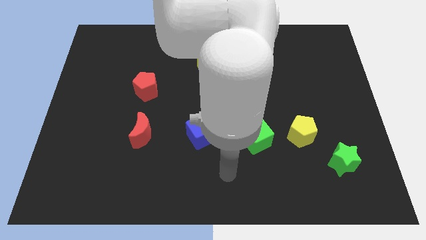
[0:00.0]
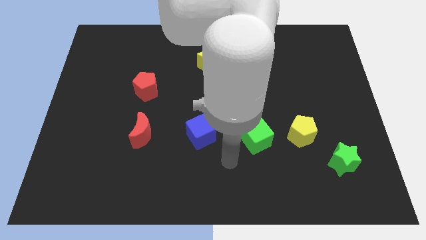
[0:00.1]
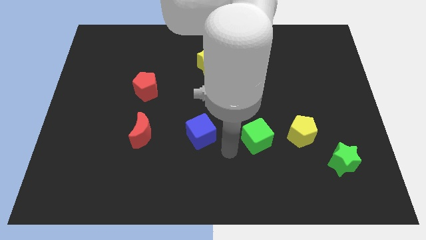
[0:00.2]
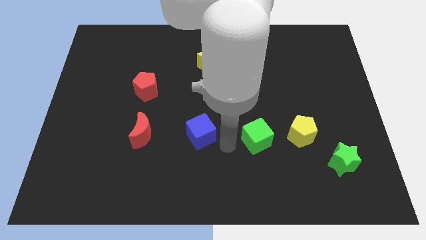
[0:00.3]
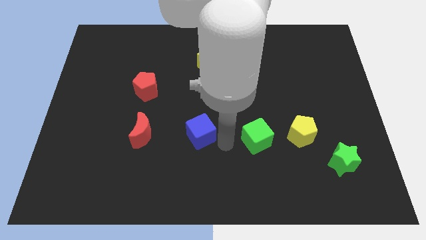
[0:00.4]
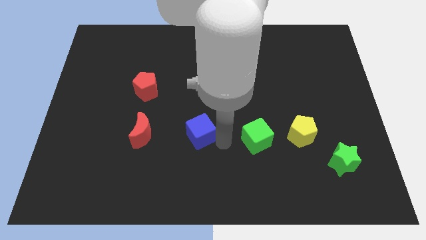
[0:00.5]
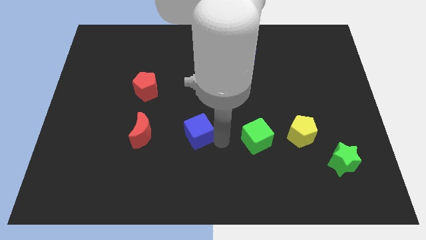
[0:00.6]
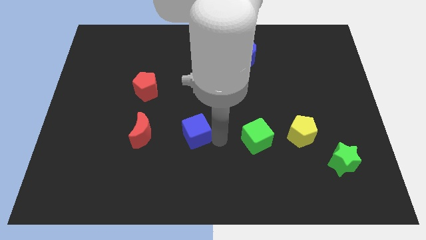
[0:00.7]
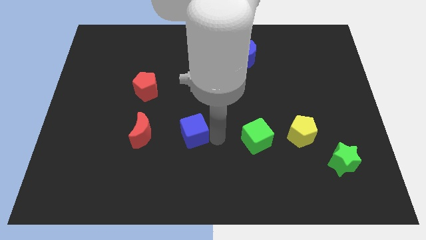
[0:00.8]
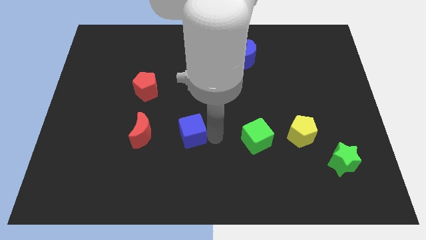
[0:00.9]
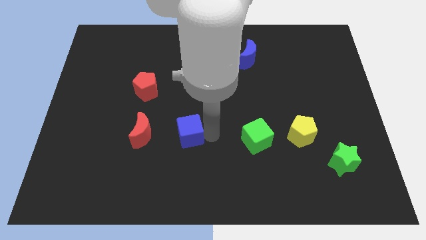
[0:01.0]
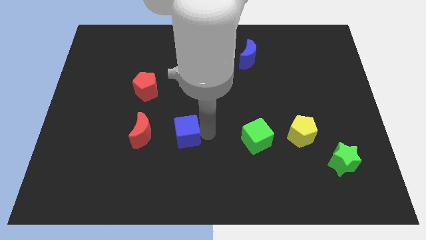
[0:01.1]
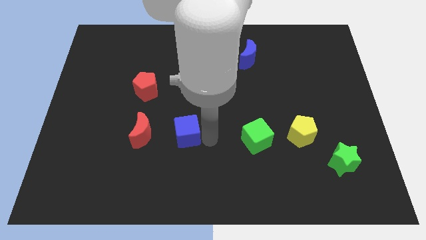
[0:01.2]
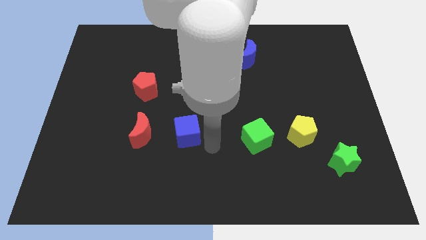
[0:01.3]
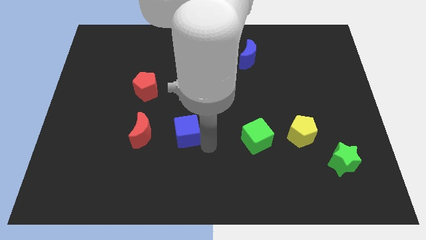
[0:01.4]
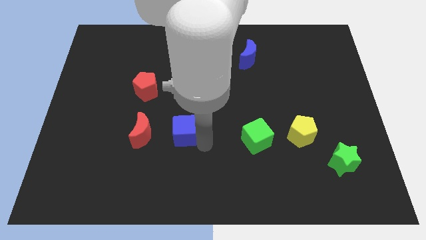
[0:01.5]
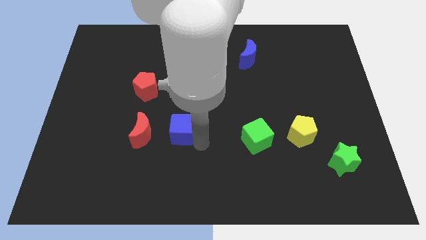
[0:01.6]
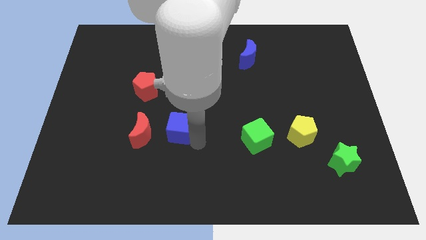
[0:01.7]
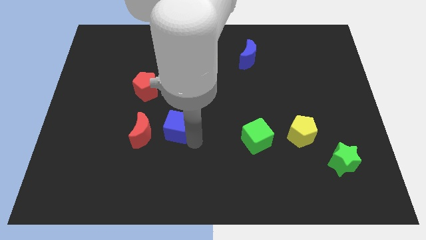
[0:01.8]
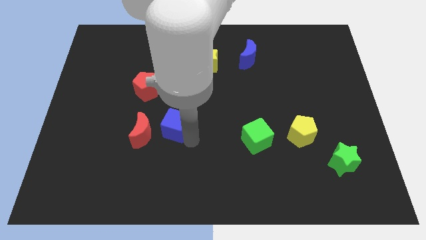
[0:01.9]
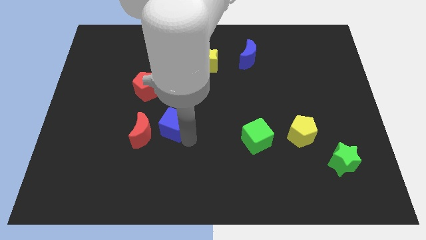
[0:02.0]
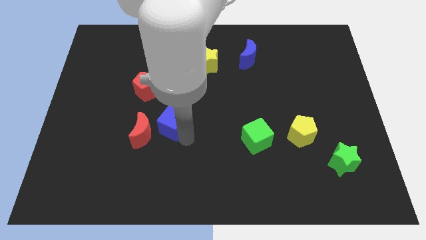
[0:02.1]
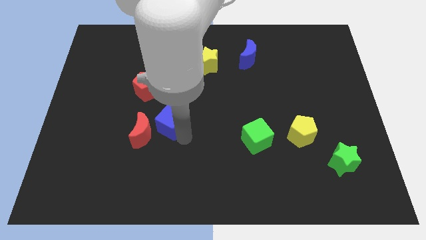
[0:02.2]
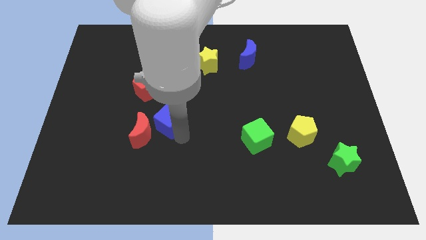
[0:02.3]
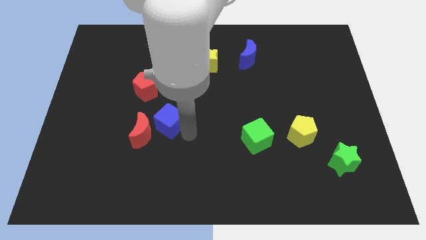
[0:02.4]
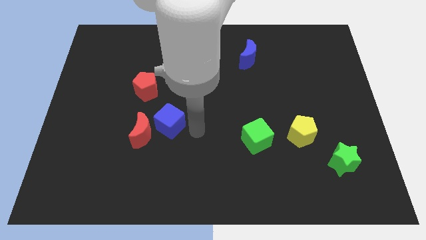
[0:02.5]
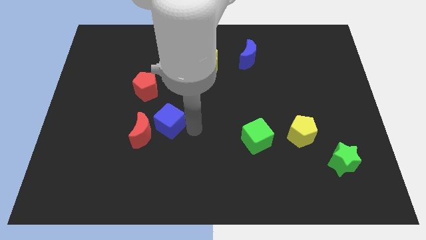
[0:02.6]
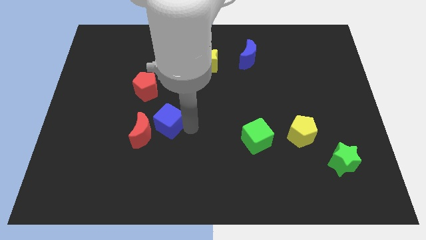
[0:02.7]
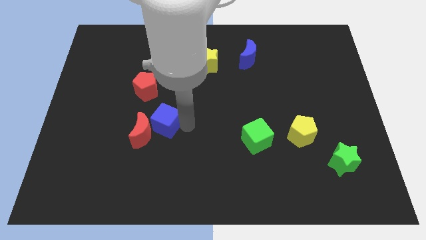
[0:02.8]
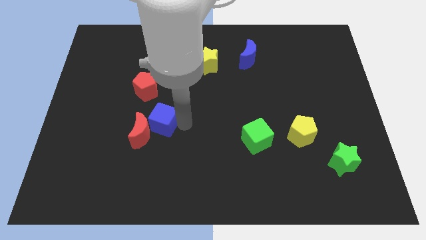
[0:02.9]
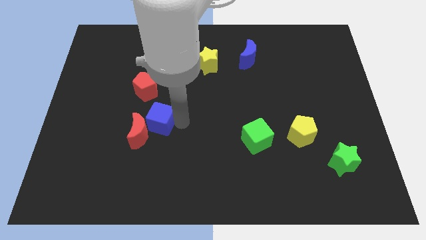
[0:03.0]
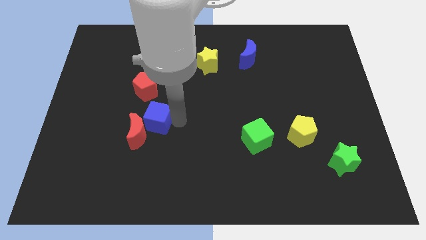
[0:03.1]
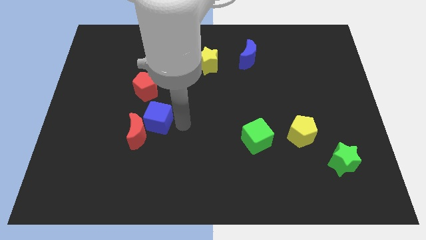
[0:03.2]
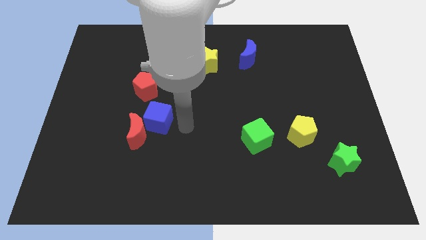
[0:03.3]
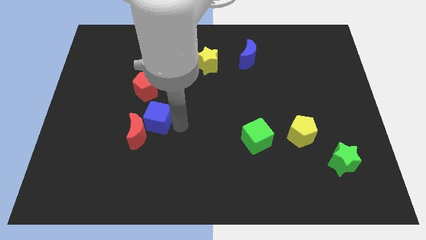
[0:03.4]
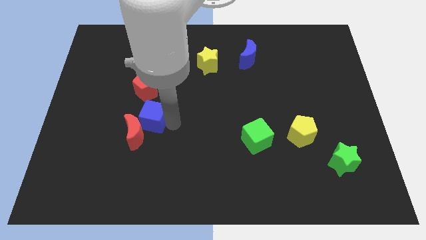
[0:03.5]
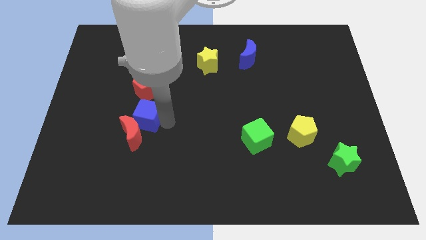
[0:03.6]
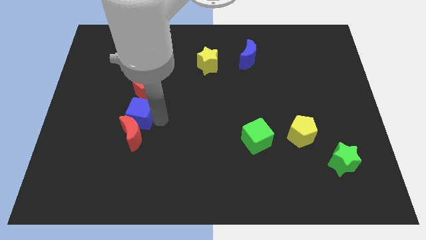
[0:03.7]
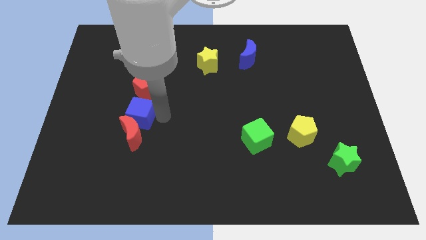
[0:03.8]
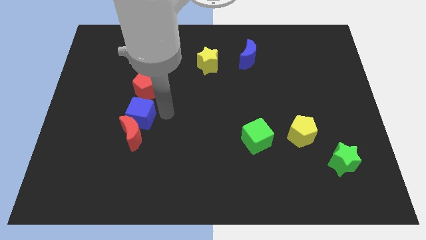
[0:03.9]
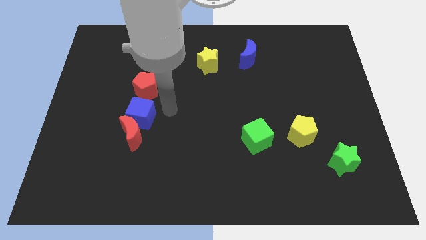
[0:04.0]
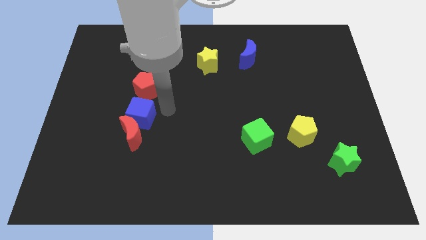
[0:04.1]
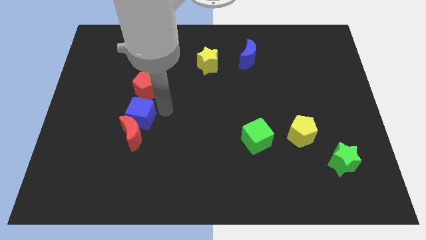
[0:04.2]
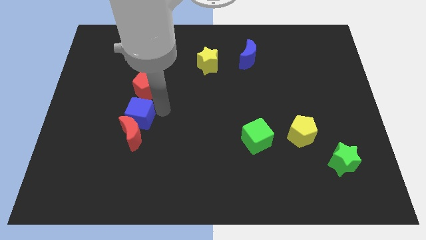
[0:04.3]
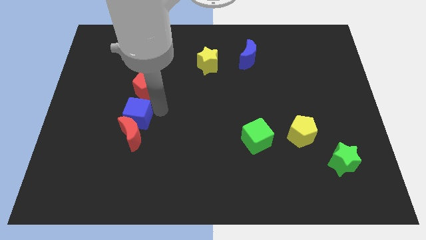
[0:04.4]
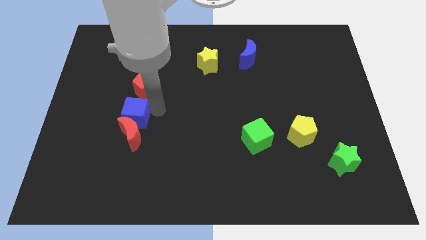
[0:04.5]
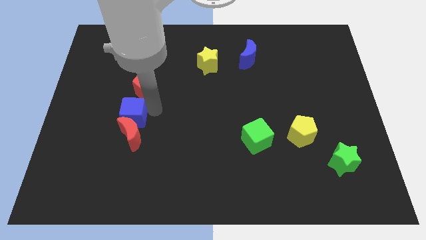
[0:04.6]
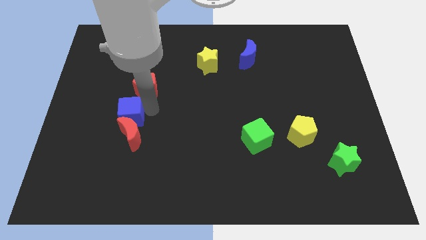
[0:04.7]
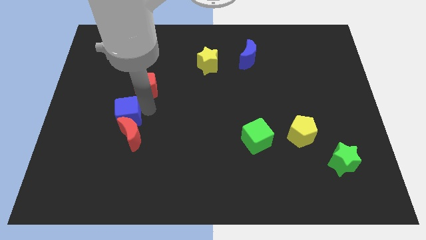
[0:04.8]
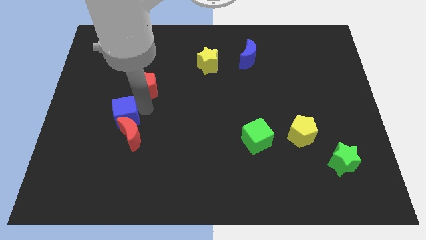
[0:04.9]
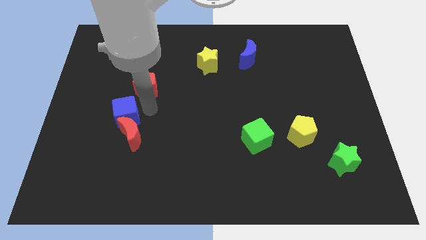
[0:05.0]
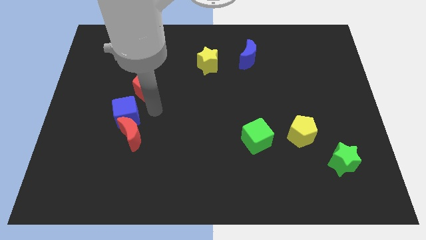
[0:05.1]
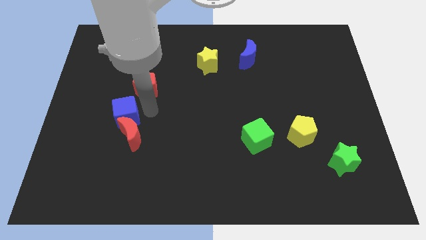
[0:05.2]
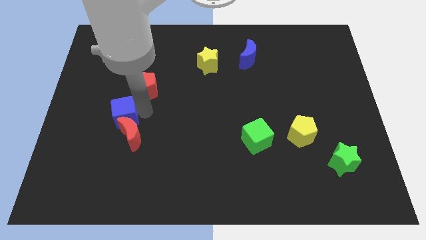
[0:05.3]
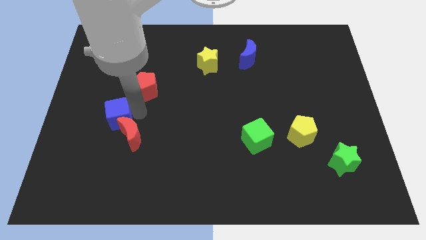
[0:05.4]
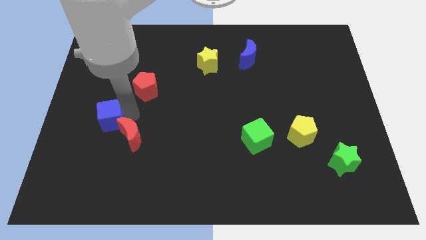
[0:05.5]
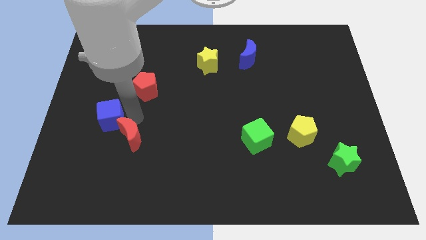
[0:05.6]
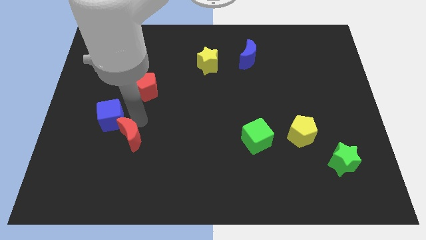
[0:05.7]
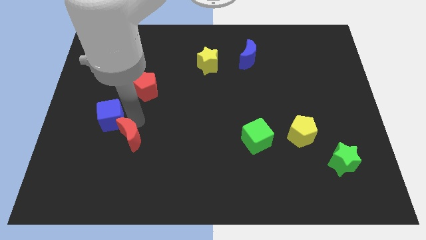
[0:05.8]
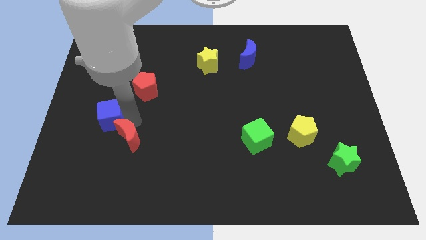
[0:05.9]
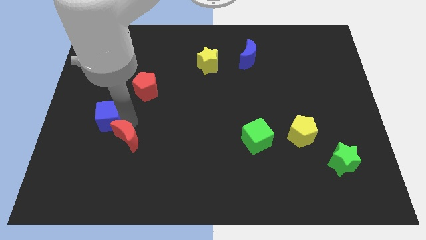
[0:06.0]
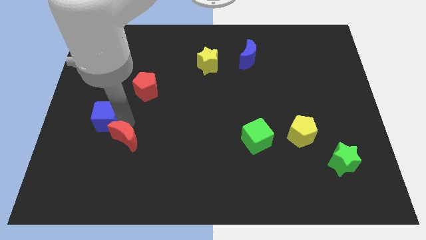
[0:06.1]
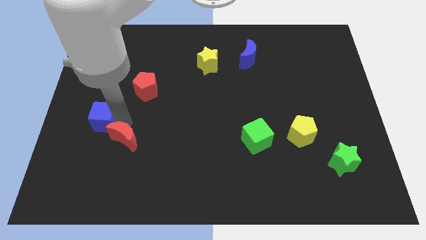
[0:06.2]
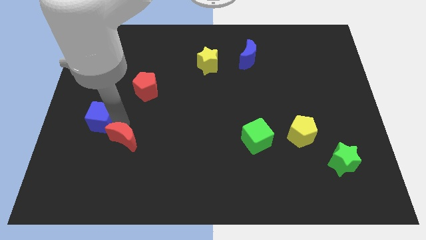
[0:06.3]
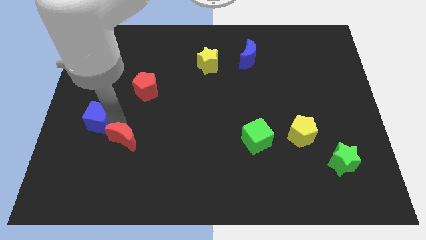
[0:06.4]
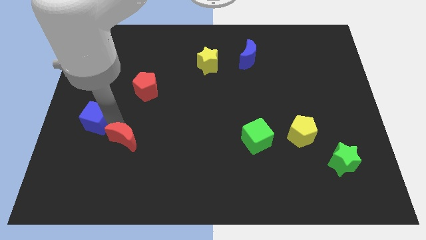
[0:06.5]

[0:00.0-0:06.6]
slide the blue cube to the left side of the board

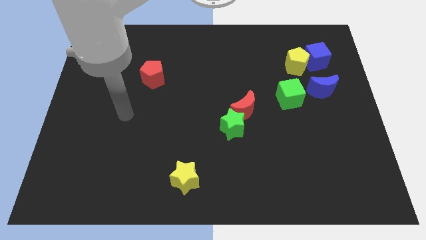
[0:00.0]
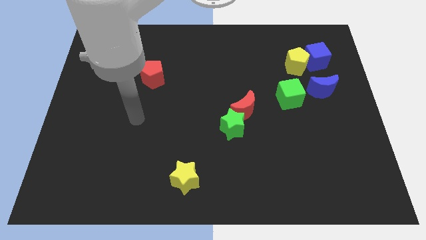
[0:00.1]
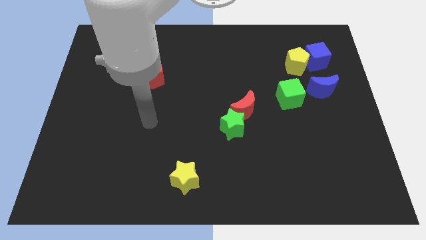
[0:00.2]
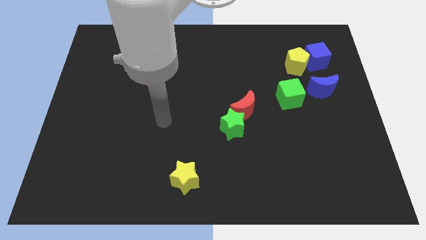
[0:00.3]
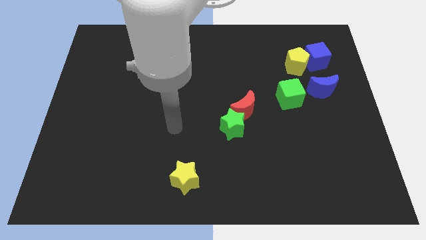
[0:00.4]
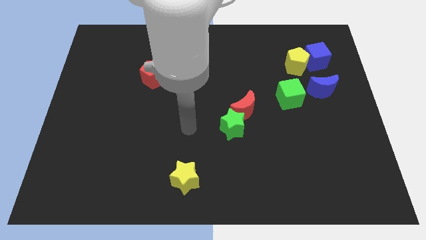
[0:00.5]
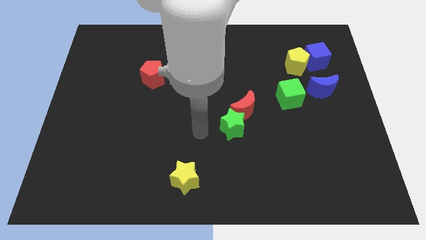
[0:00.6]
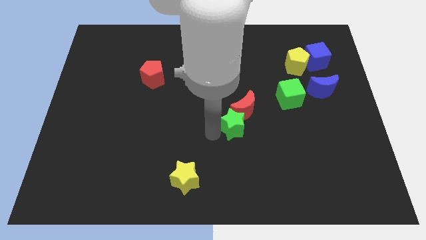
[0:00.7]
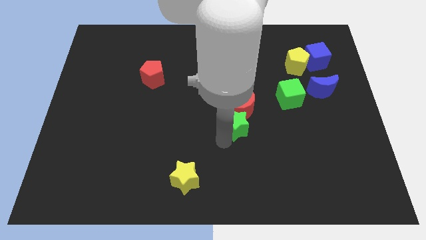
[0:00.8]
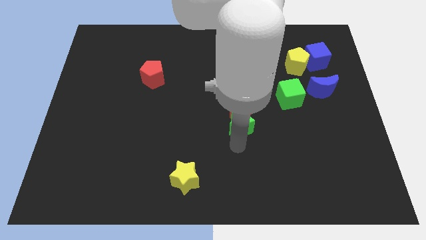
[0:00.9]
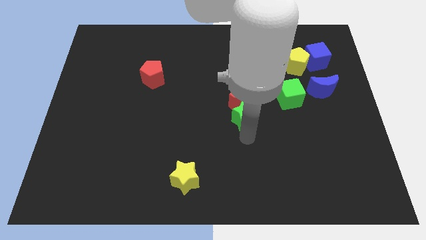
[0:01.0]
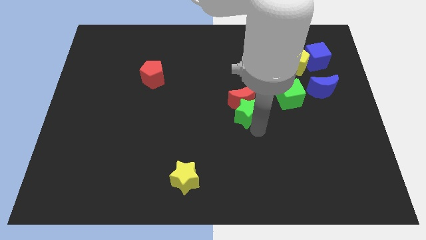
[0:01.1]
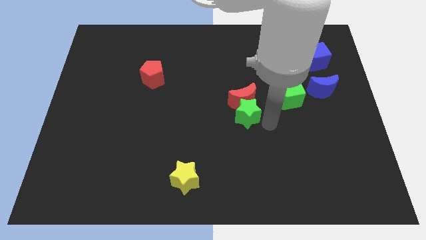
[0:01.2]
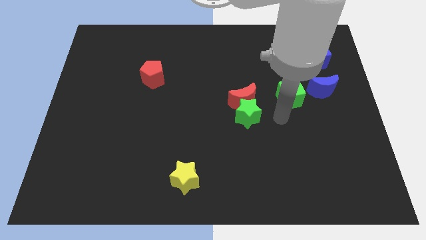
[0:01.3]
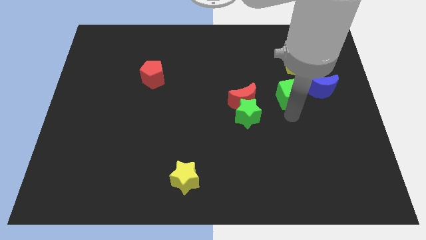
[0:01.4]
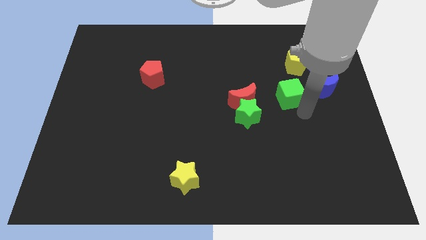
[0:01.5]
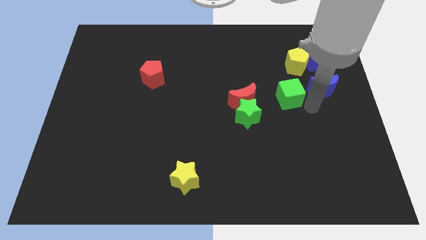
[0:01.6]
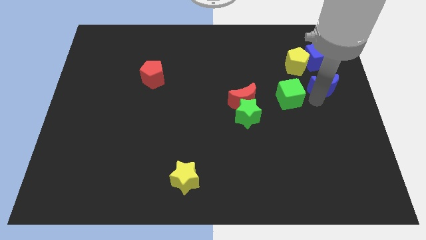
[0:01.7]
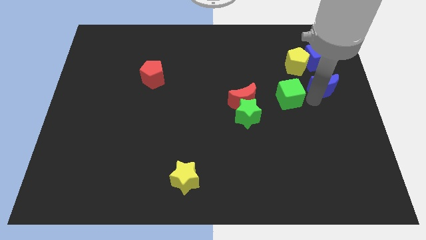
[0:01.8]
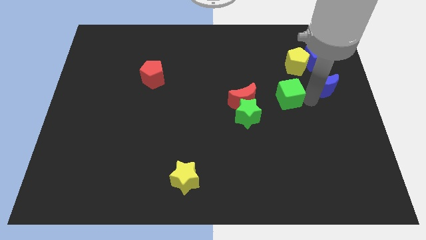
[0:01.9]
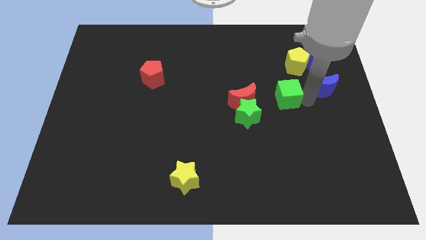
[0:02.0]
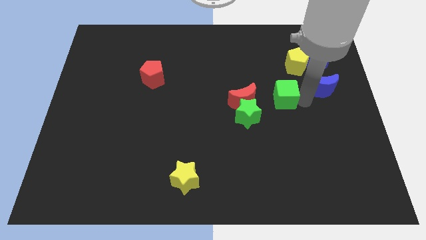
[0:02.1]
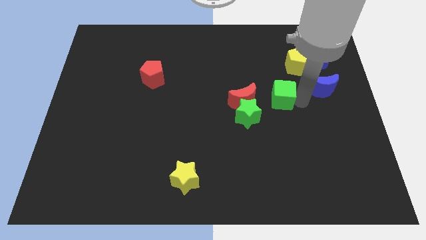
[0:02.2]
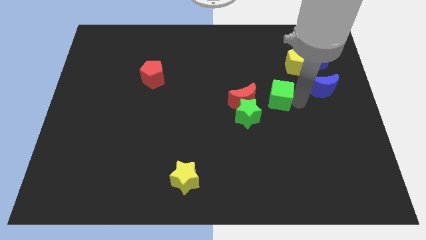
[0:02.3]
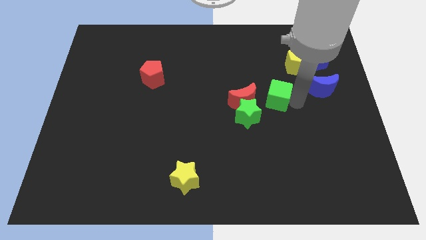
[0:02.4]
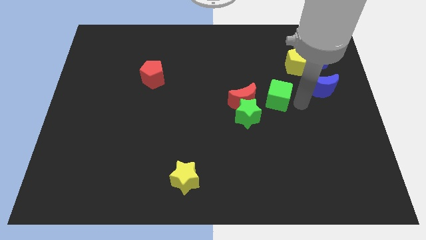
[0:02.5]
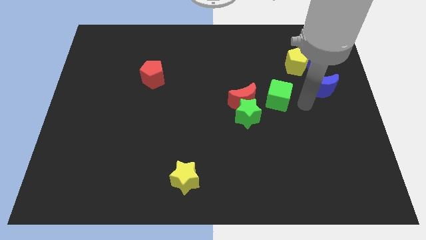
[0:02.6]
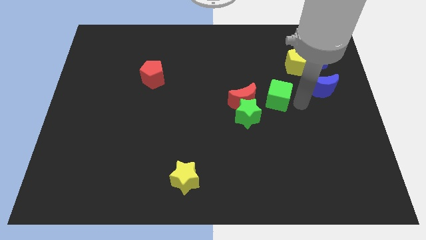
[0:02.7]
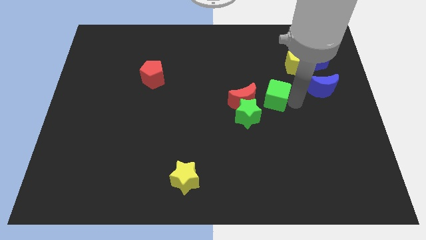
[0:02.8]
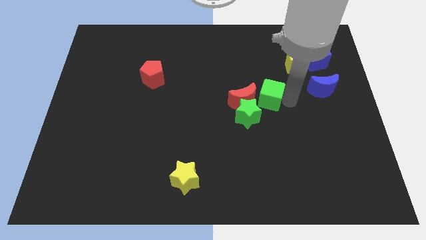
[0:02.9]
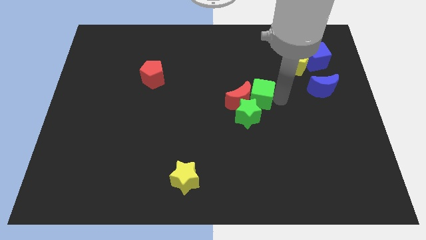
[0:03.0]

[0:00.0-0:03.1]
put the green cube to the middle
